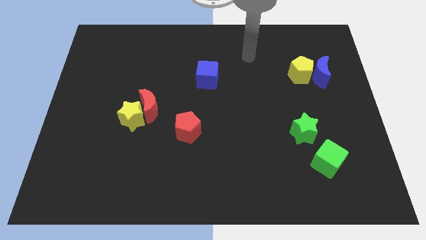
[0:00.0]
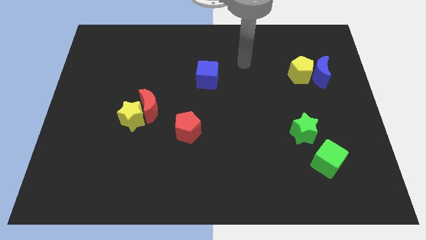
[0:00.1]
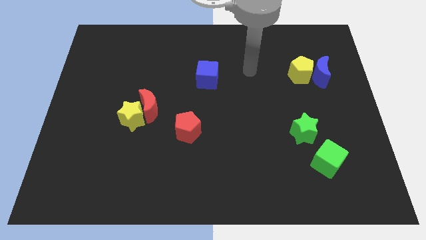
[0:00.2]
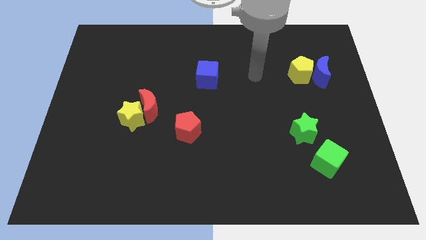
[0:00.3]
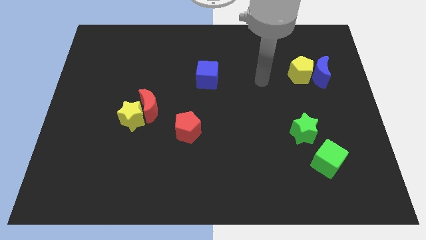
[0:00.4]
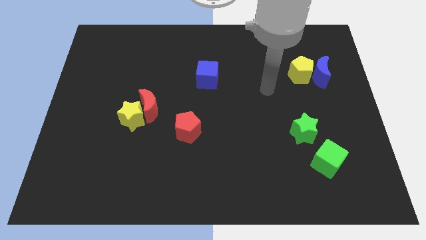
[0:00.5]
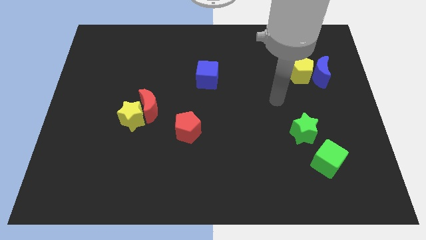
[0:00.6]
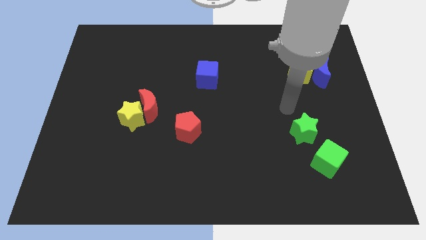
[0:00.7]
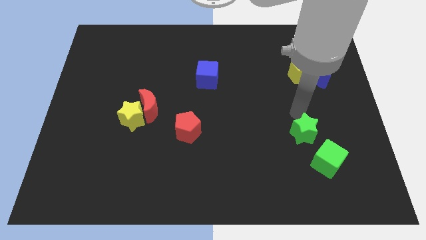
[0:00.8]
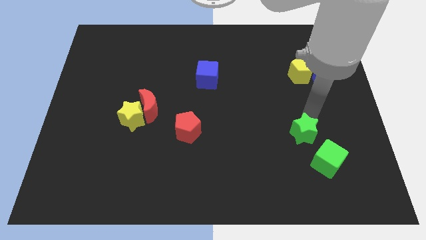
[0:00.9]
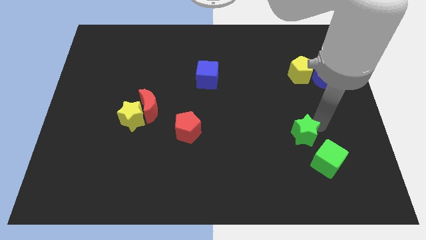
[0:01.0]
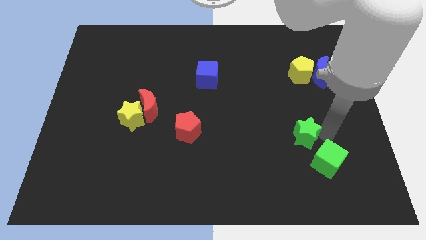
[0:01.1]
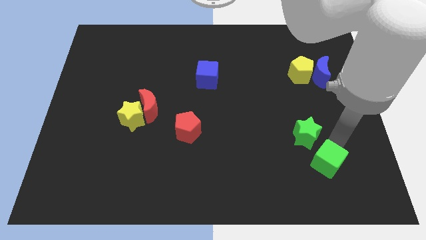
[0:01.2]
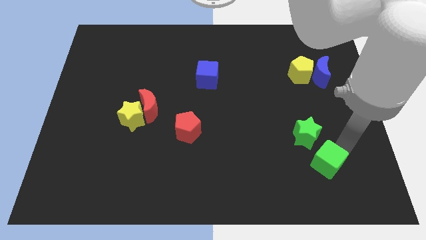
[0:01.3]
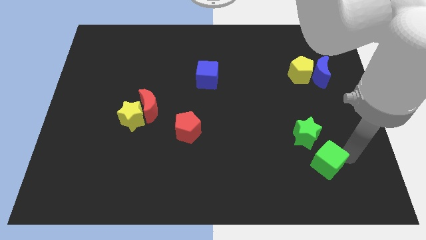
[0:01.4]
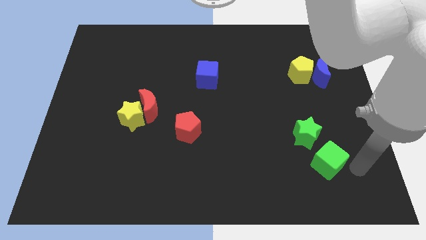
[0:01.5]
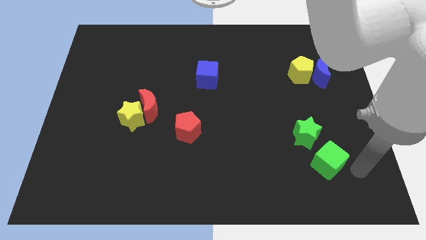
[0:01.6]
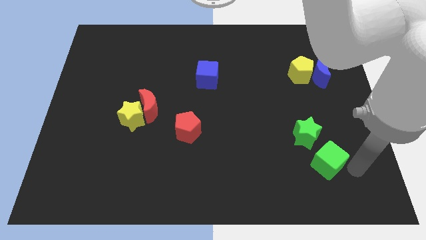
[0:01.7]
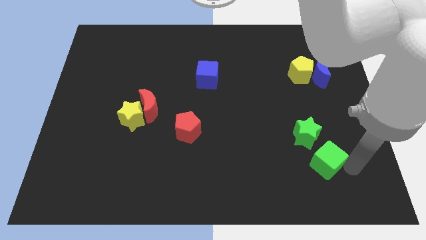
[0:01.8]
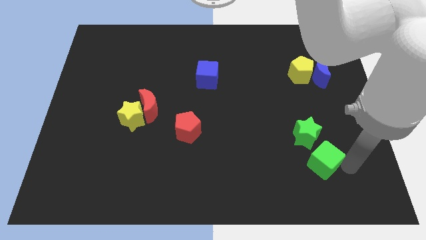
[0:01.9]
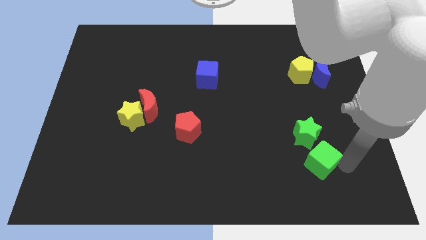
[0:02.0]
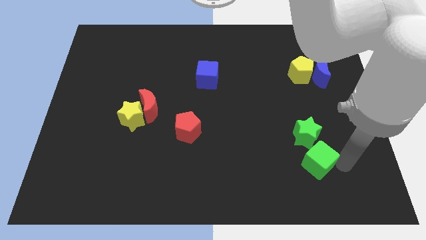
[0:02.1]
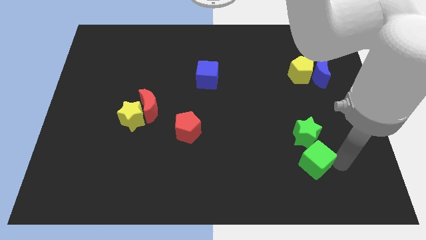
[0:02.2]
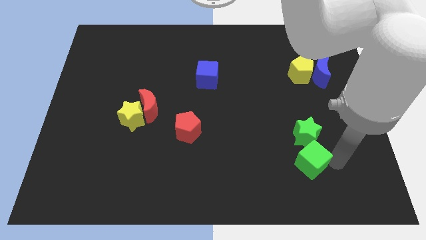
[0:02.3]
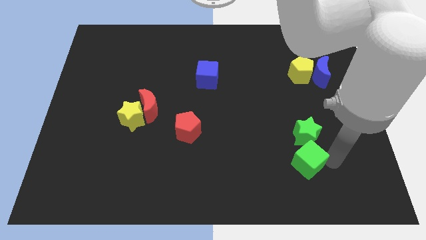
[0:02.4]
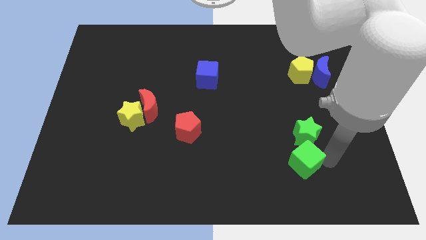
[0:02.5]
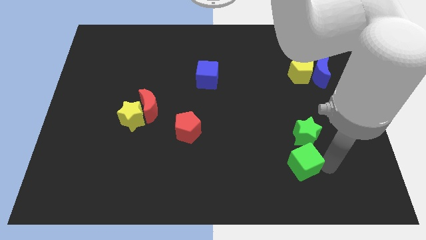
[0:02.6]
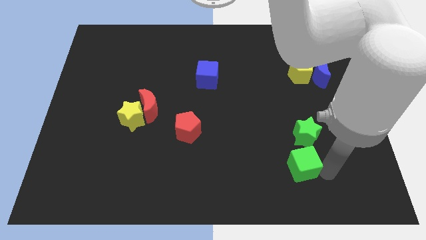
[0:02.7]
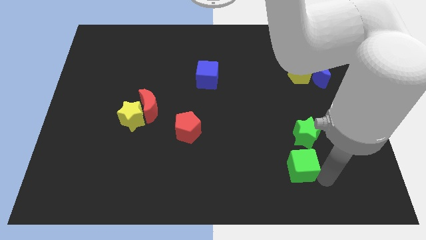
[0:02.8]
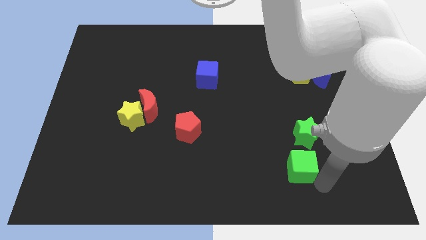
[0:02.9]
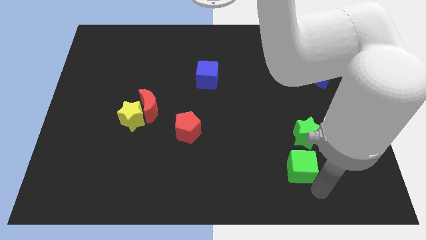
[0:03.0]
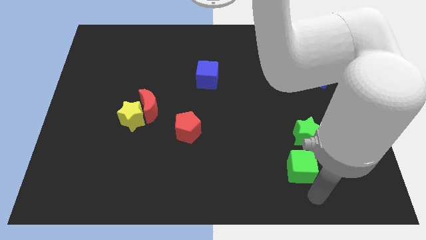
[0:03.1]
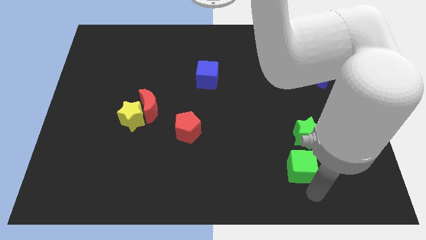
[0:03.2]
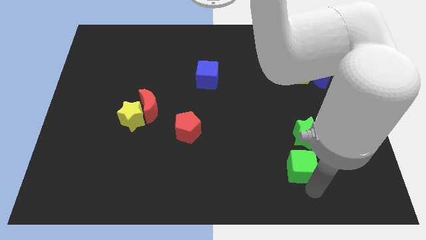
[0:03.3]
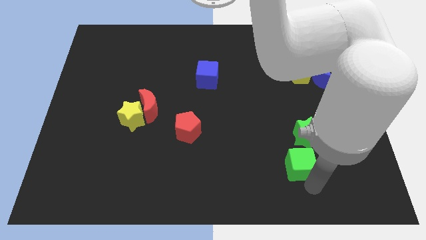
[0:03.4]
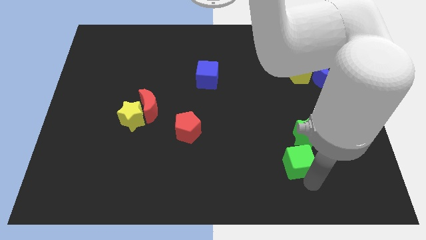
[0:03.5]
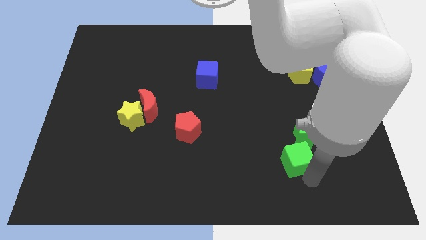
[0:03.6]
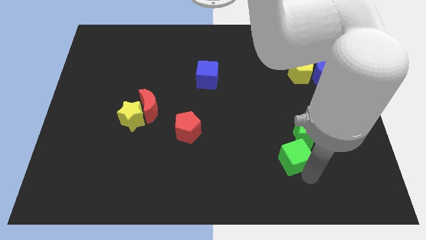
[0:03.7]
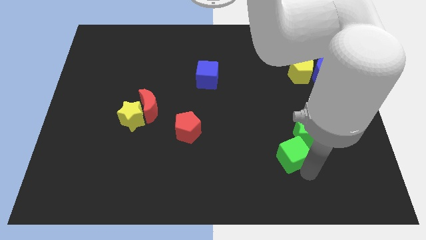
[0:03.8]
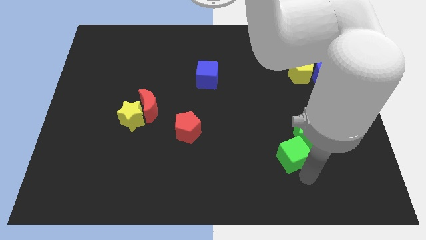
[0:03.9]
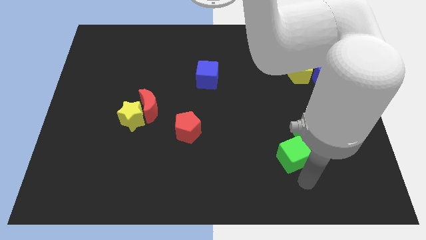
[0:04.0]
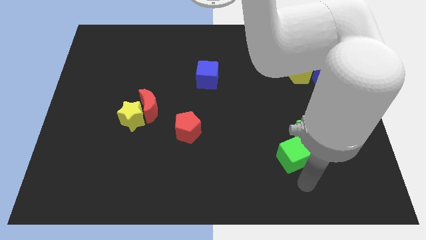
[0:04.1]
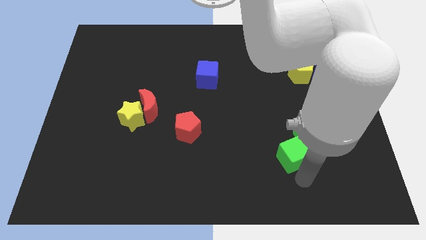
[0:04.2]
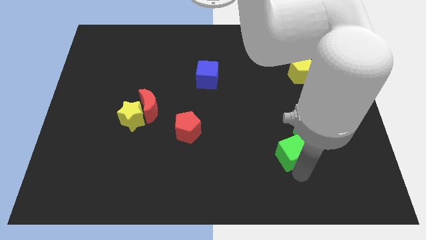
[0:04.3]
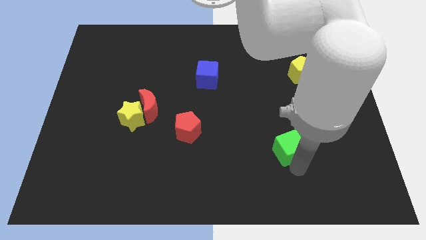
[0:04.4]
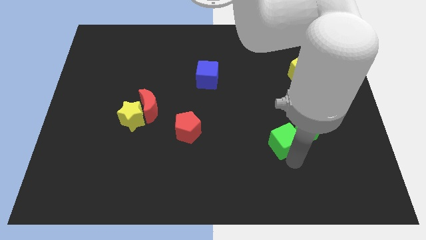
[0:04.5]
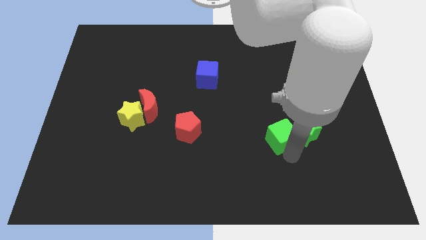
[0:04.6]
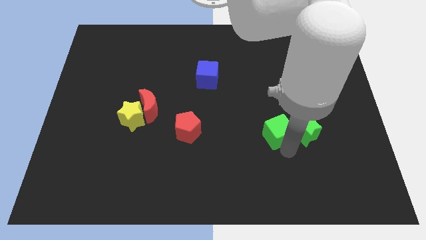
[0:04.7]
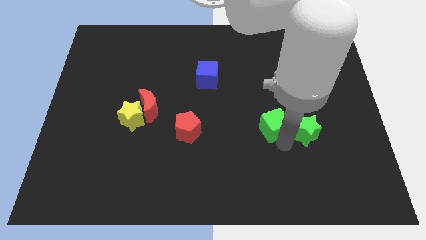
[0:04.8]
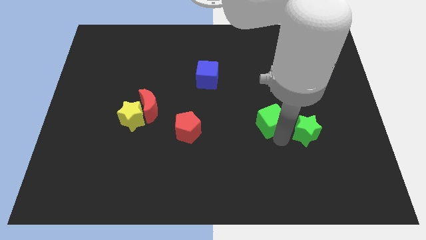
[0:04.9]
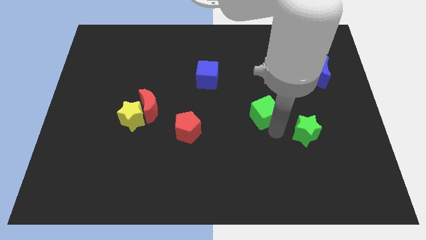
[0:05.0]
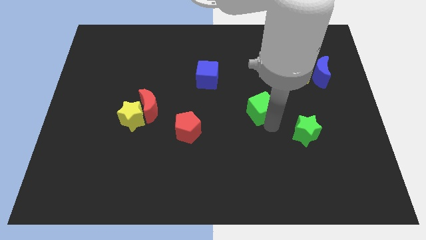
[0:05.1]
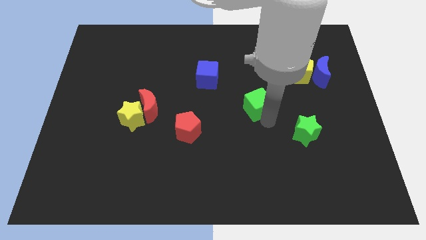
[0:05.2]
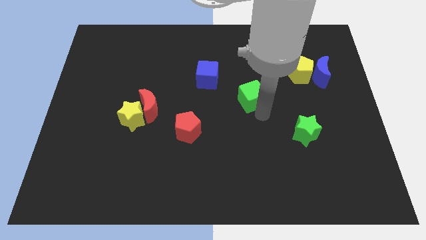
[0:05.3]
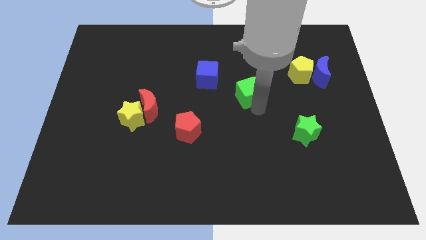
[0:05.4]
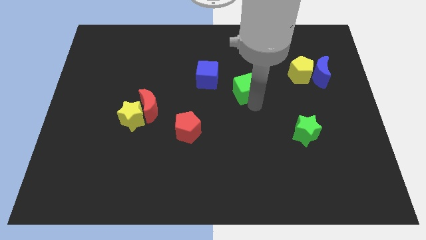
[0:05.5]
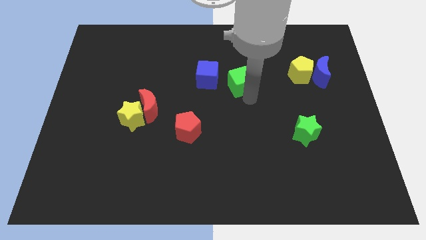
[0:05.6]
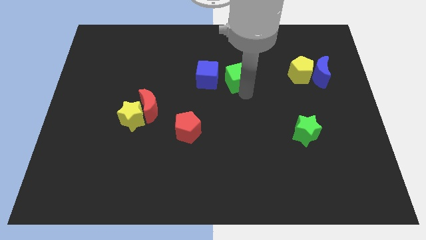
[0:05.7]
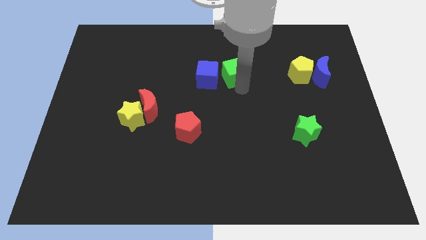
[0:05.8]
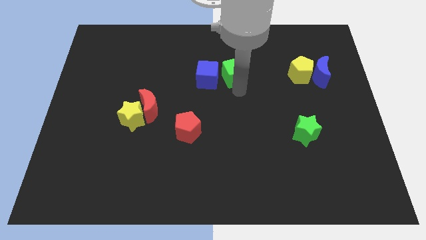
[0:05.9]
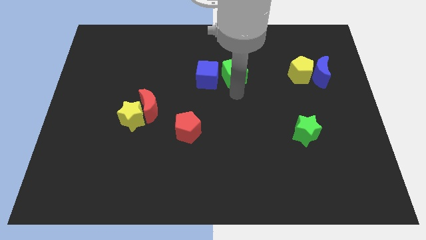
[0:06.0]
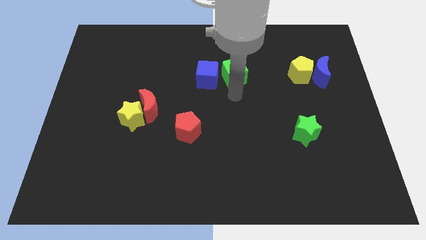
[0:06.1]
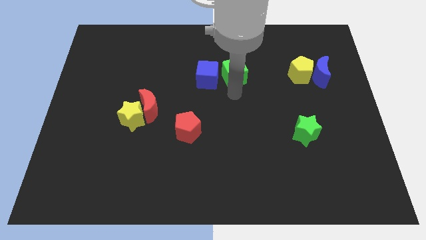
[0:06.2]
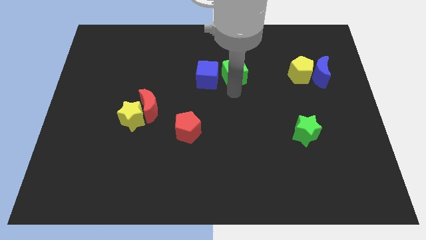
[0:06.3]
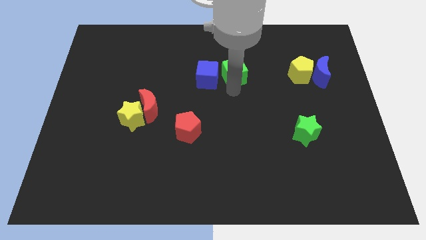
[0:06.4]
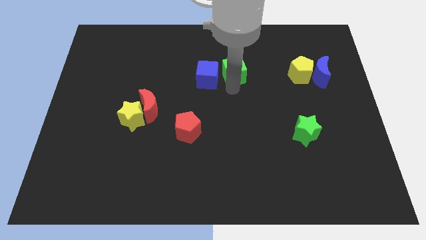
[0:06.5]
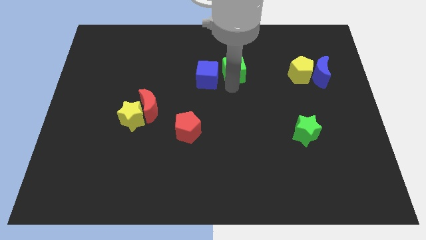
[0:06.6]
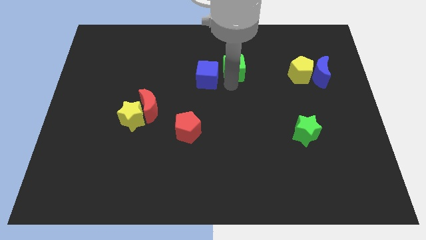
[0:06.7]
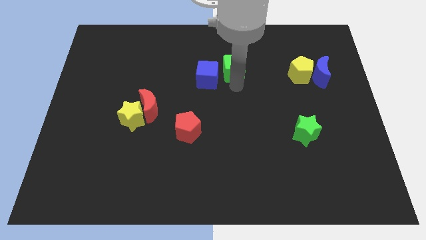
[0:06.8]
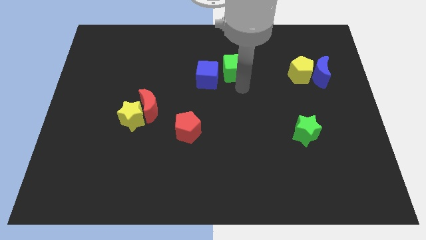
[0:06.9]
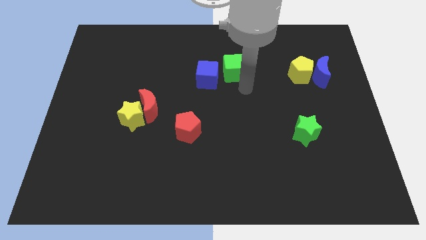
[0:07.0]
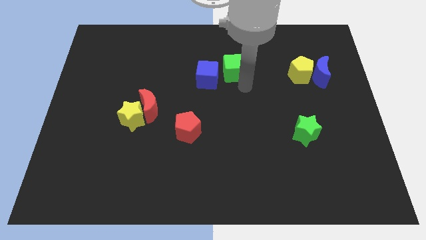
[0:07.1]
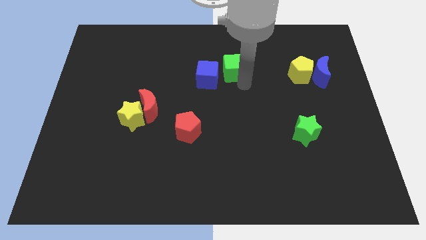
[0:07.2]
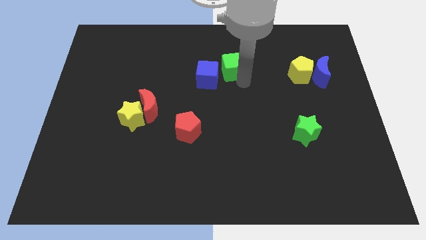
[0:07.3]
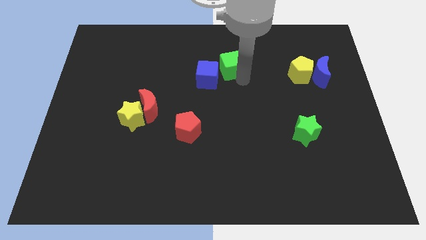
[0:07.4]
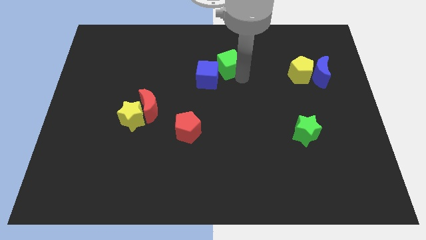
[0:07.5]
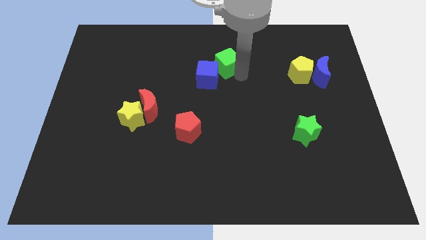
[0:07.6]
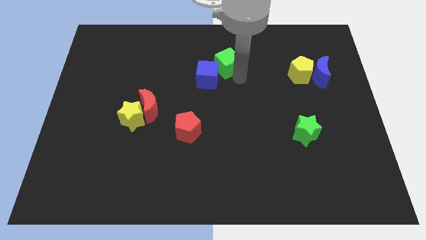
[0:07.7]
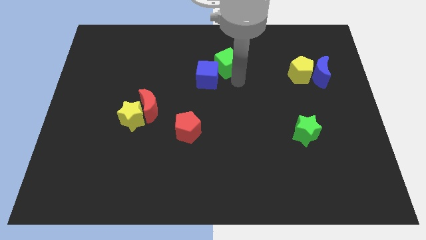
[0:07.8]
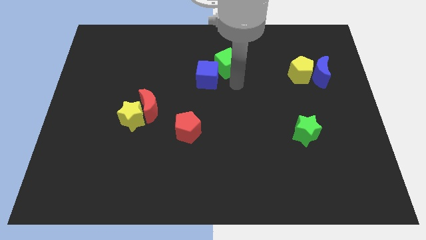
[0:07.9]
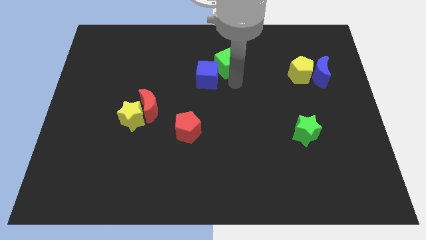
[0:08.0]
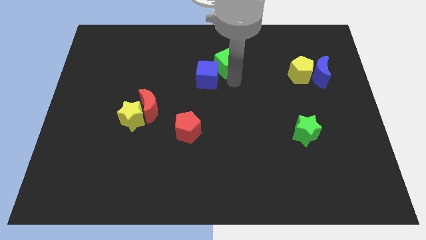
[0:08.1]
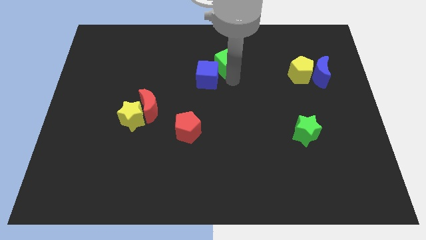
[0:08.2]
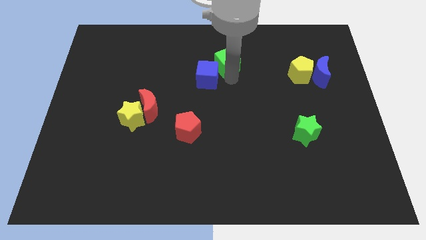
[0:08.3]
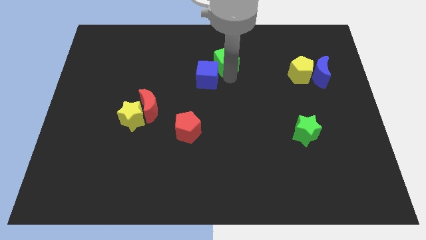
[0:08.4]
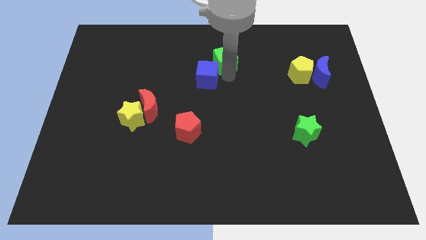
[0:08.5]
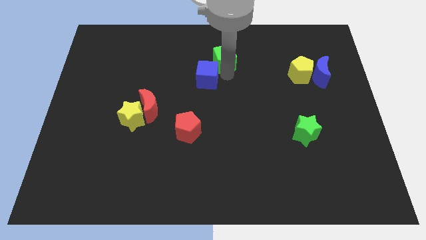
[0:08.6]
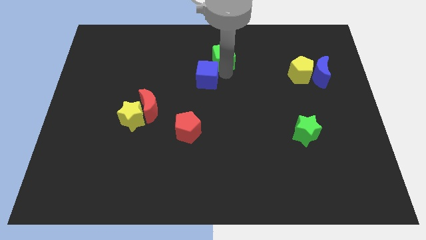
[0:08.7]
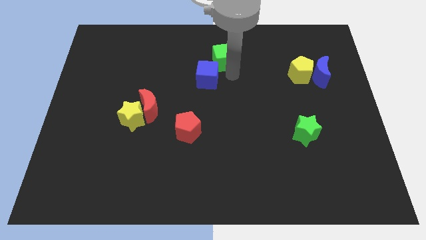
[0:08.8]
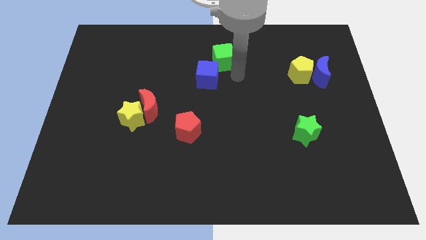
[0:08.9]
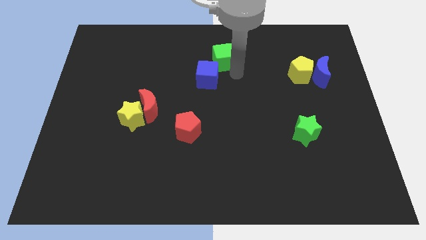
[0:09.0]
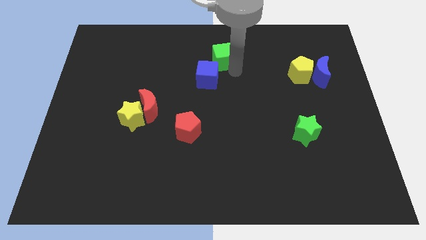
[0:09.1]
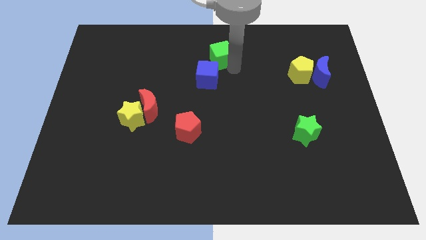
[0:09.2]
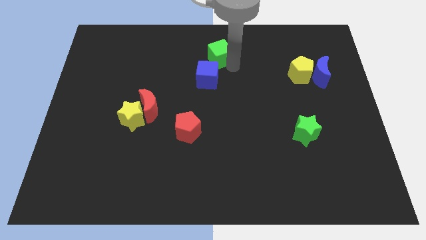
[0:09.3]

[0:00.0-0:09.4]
put the green cube to the top
